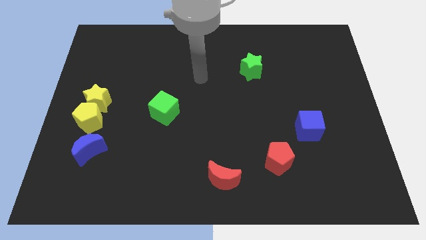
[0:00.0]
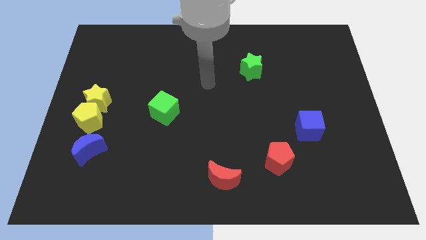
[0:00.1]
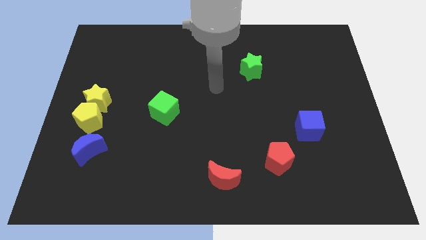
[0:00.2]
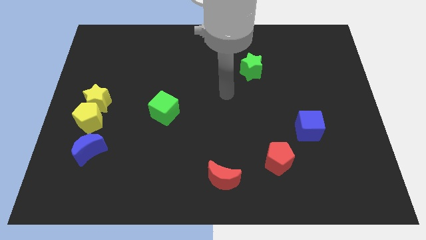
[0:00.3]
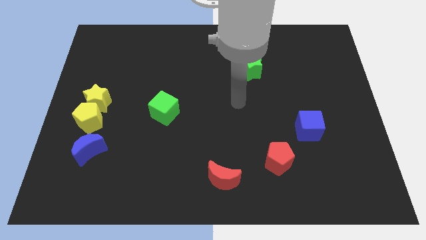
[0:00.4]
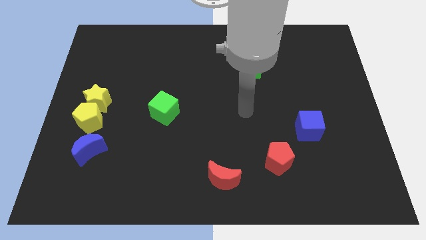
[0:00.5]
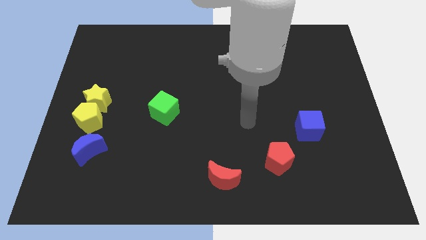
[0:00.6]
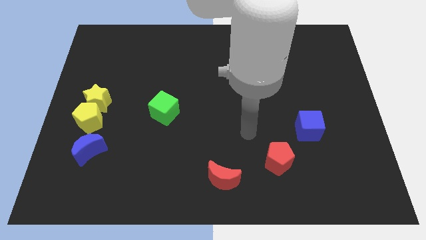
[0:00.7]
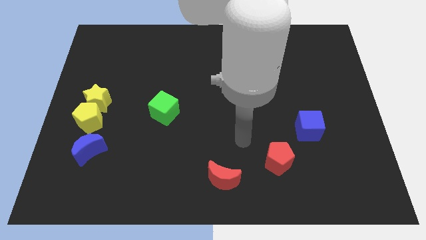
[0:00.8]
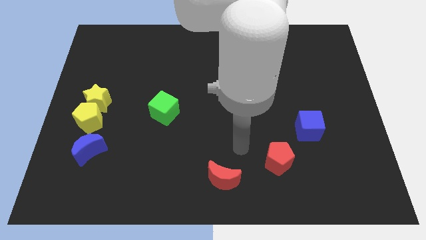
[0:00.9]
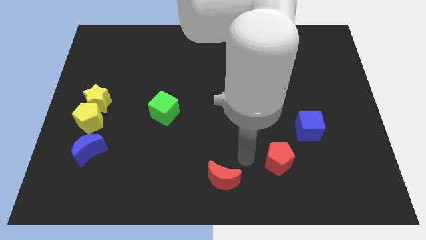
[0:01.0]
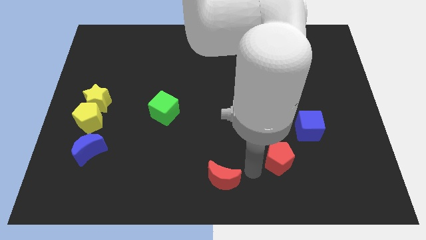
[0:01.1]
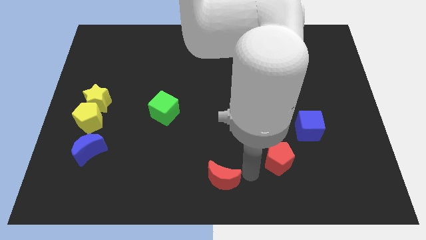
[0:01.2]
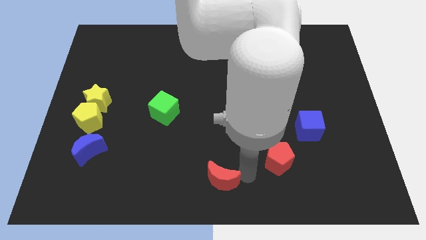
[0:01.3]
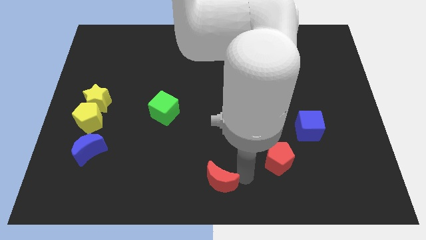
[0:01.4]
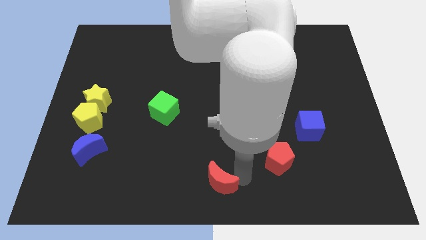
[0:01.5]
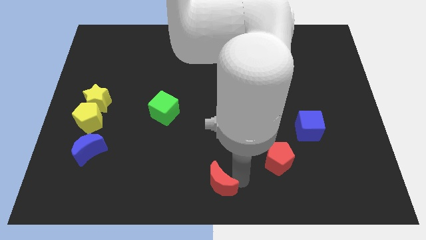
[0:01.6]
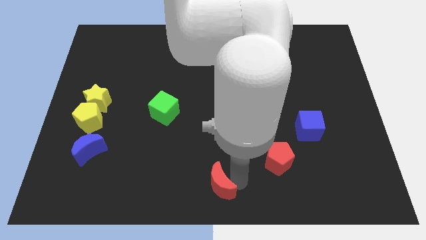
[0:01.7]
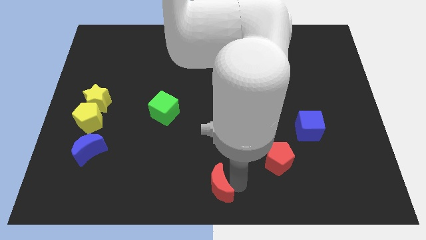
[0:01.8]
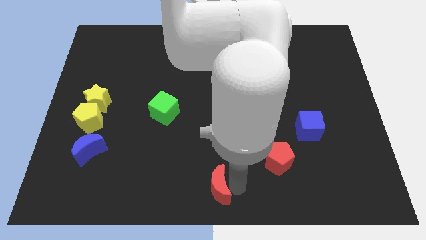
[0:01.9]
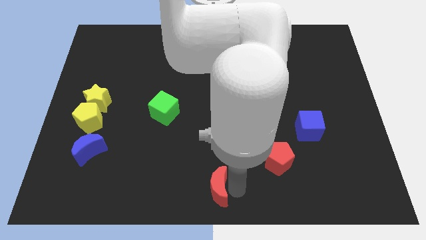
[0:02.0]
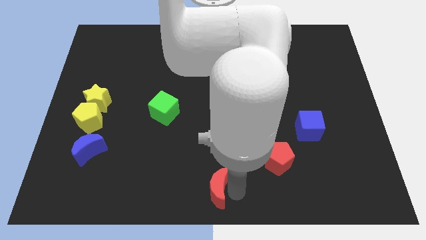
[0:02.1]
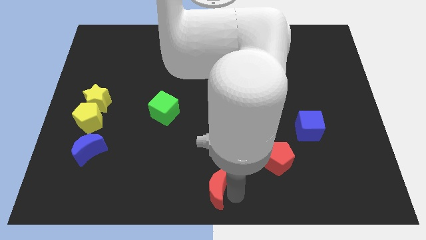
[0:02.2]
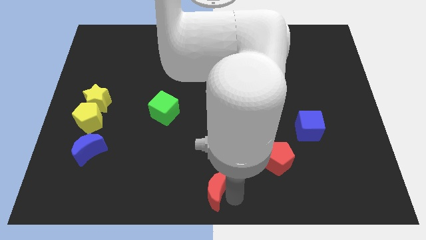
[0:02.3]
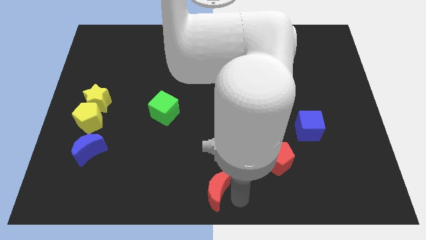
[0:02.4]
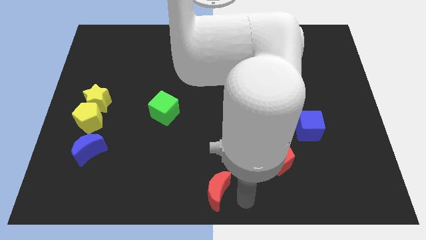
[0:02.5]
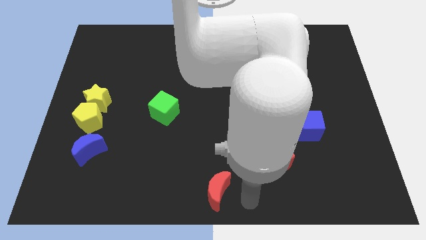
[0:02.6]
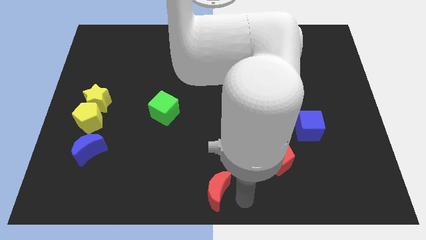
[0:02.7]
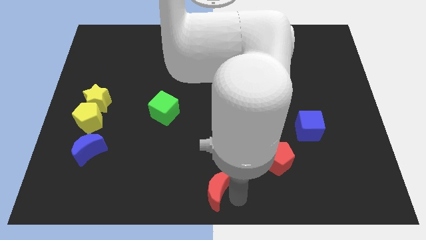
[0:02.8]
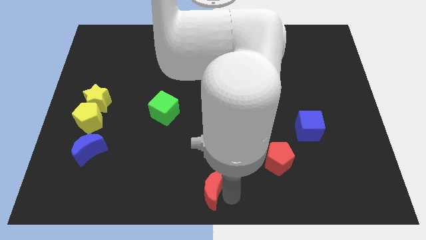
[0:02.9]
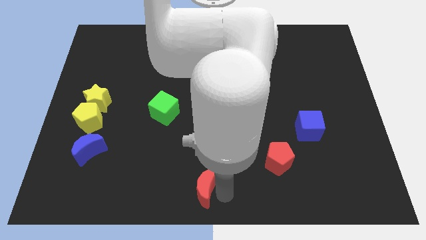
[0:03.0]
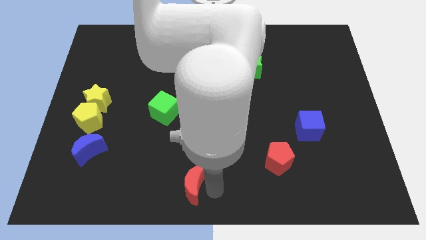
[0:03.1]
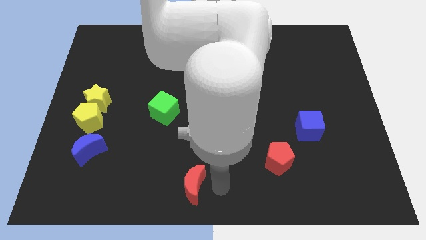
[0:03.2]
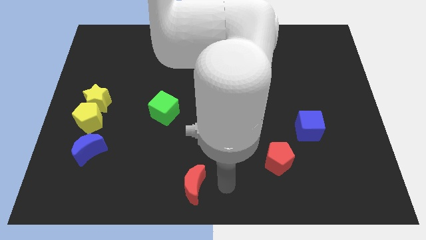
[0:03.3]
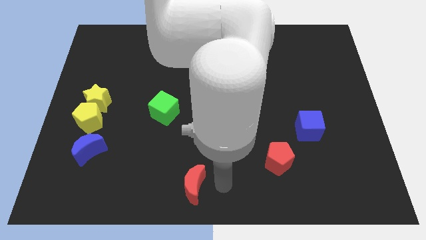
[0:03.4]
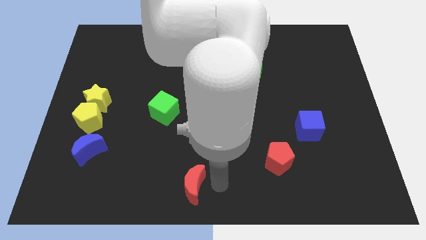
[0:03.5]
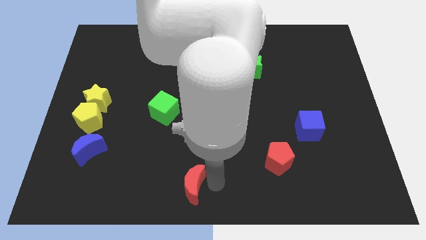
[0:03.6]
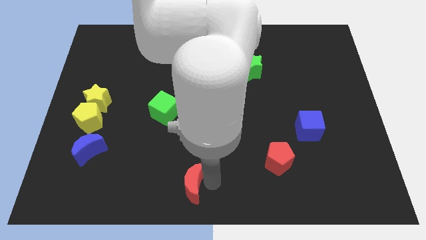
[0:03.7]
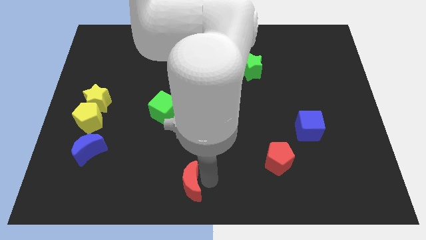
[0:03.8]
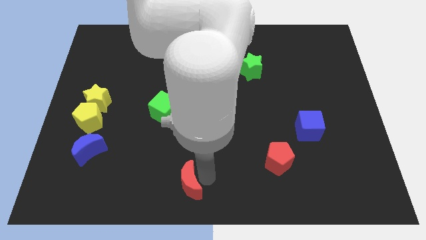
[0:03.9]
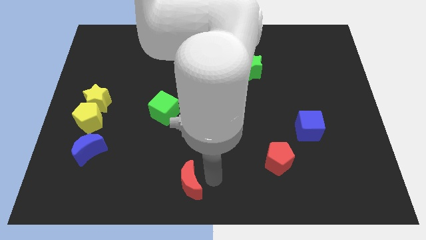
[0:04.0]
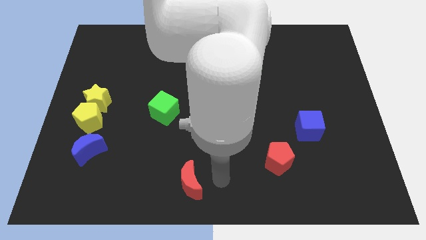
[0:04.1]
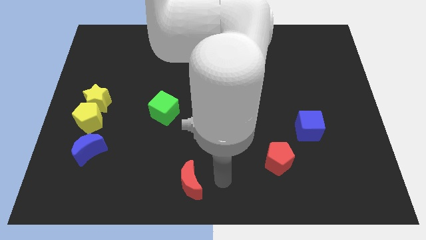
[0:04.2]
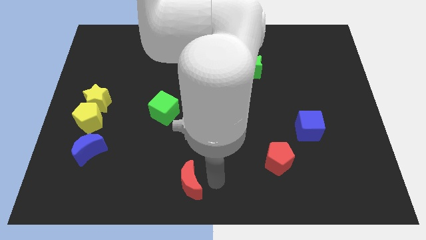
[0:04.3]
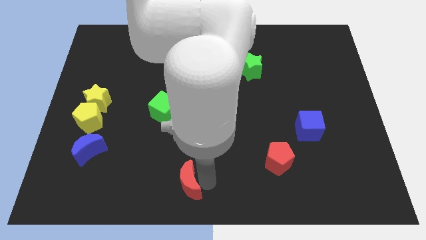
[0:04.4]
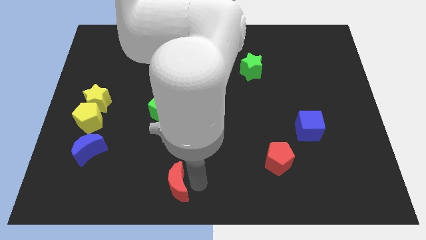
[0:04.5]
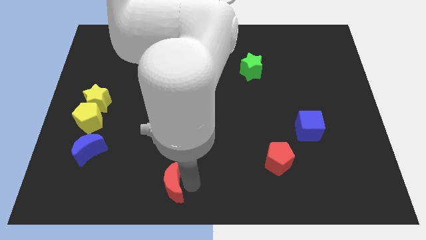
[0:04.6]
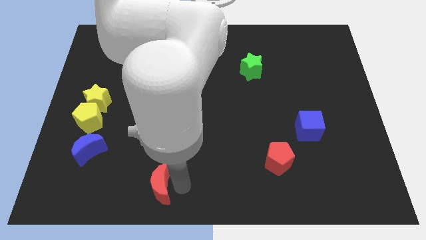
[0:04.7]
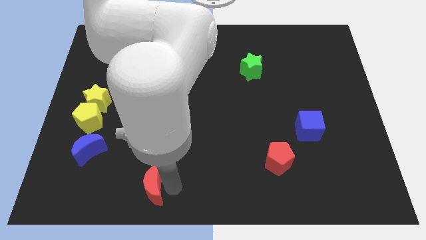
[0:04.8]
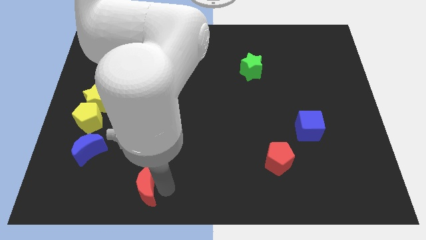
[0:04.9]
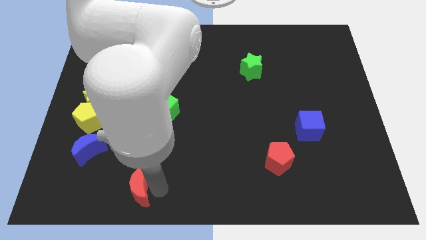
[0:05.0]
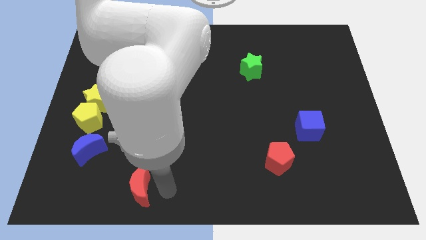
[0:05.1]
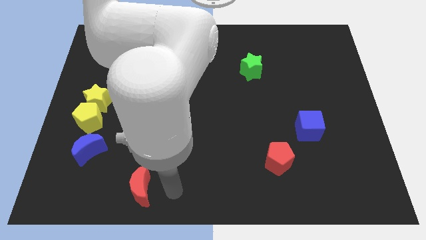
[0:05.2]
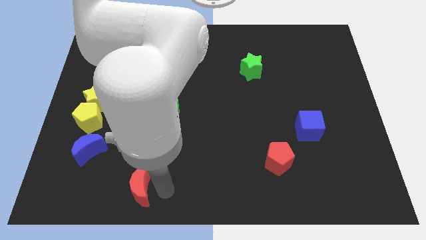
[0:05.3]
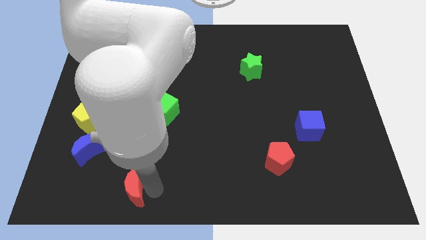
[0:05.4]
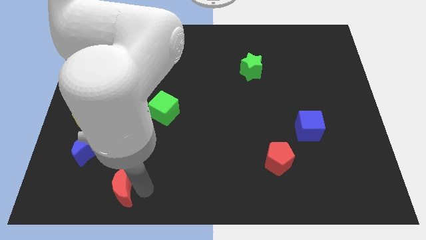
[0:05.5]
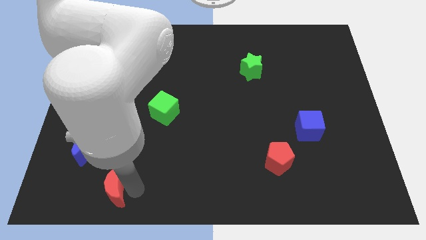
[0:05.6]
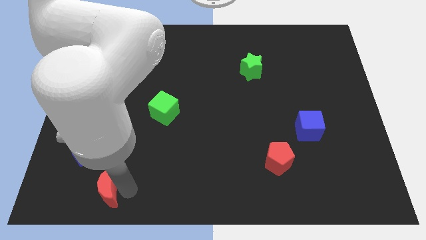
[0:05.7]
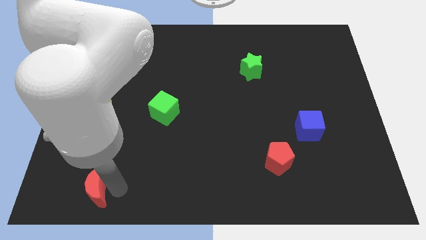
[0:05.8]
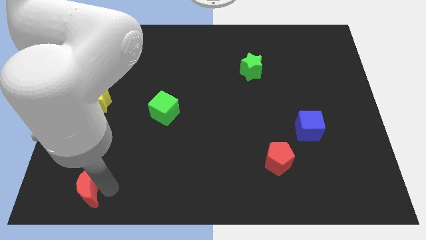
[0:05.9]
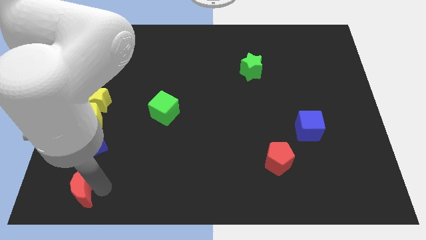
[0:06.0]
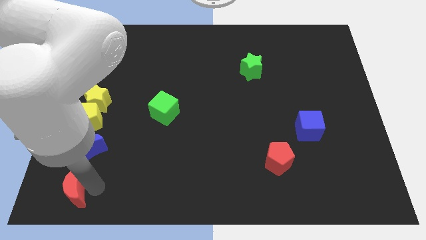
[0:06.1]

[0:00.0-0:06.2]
move the red moon to the bottom left corner

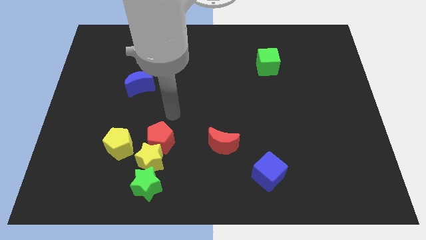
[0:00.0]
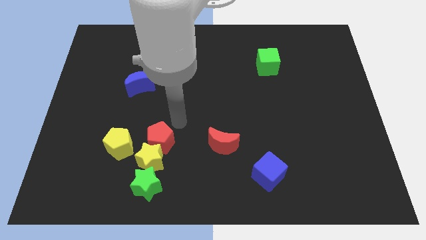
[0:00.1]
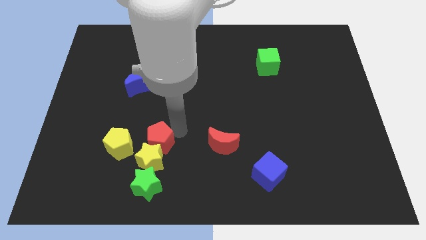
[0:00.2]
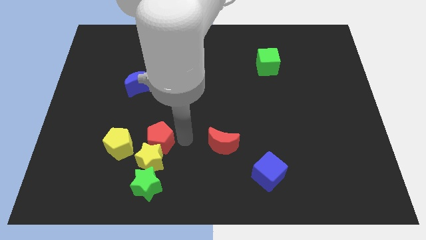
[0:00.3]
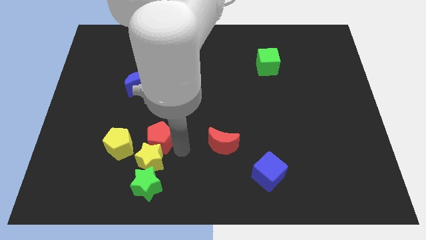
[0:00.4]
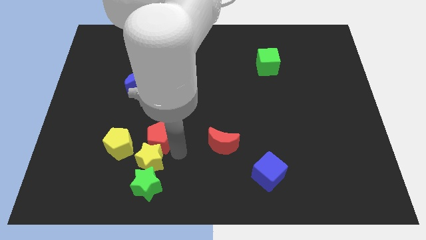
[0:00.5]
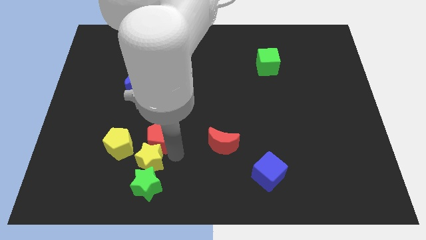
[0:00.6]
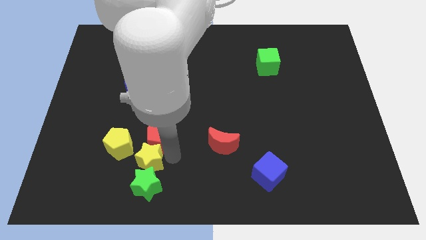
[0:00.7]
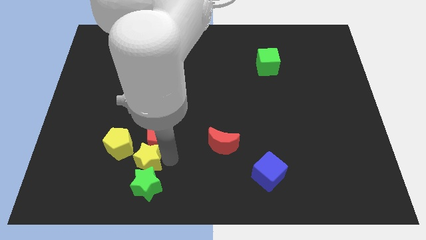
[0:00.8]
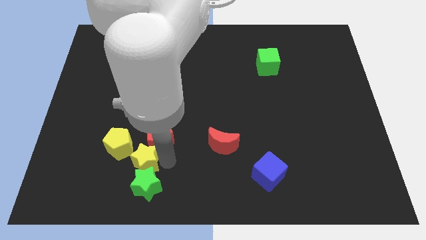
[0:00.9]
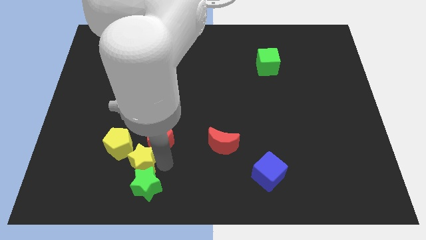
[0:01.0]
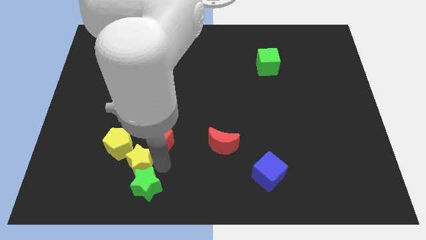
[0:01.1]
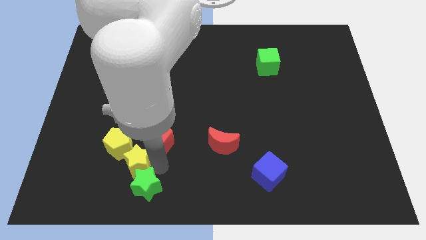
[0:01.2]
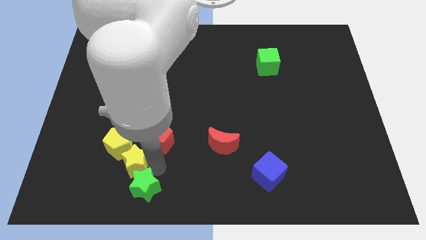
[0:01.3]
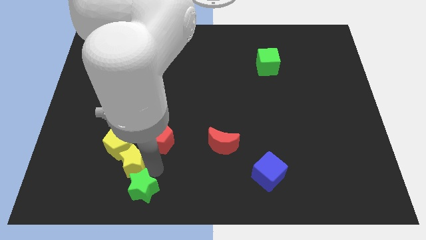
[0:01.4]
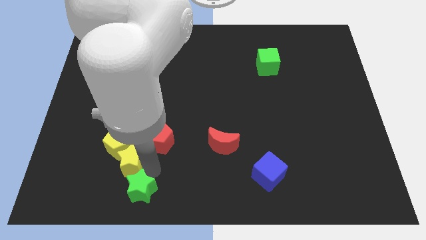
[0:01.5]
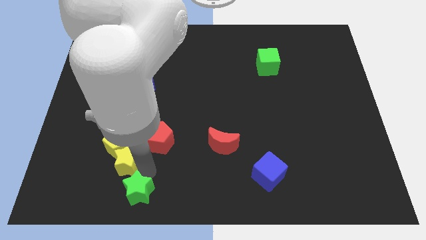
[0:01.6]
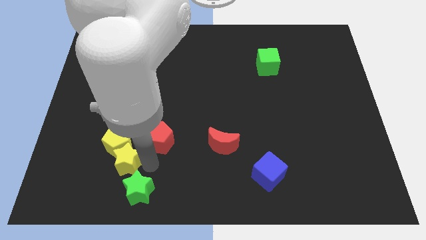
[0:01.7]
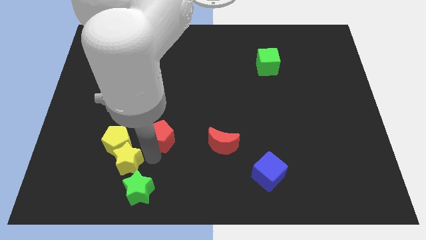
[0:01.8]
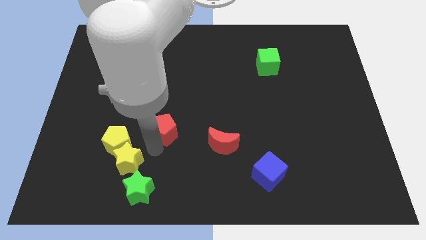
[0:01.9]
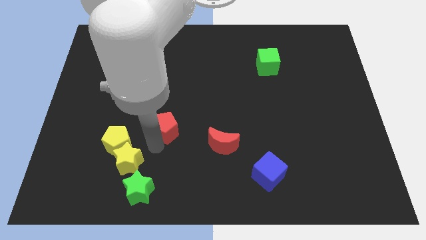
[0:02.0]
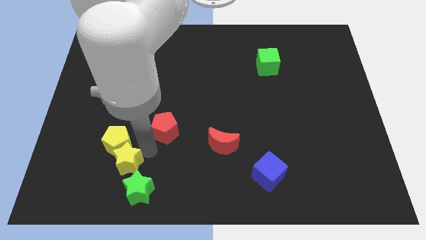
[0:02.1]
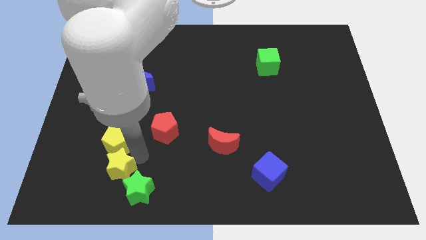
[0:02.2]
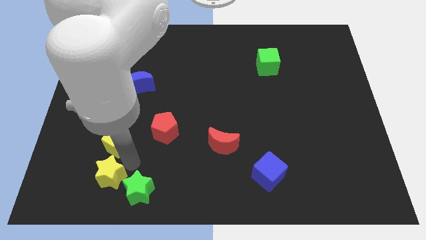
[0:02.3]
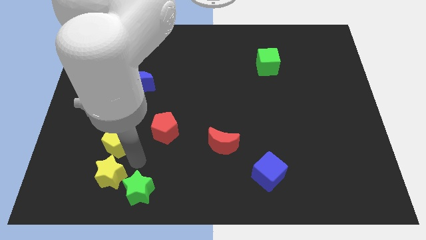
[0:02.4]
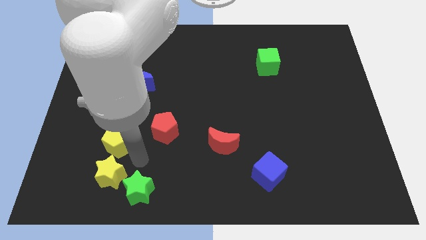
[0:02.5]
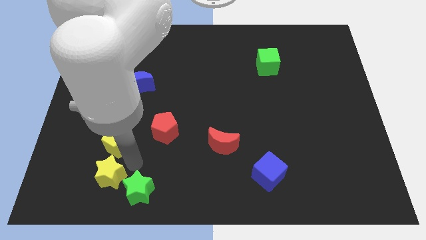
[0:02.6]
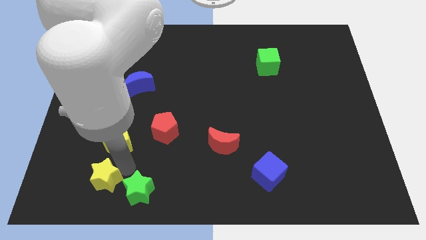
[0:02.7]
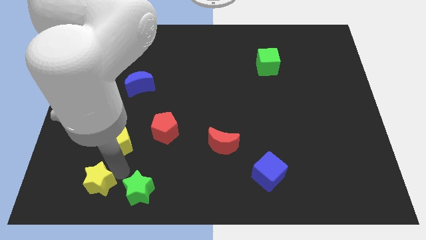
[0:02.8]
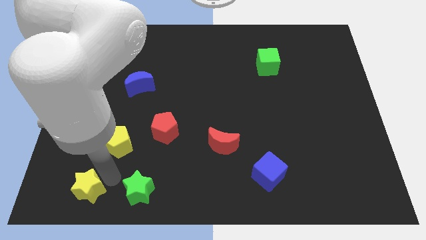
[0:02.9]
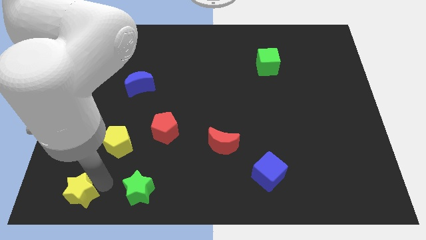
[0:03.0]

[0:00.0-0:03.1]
slide the yellow star to the bottom left of the board
